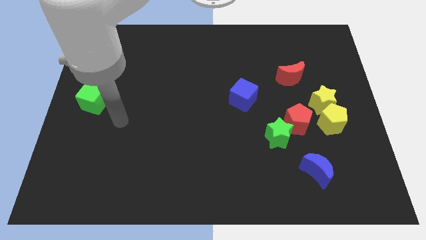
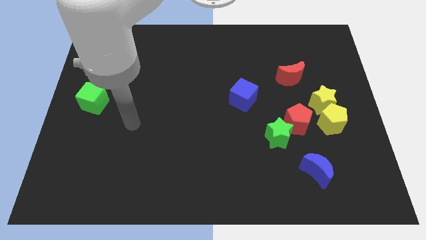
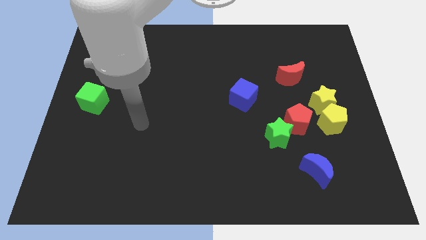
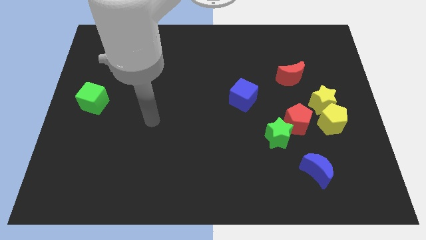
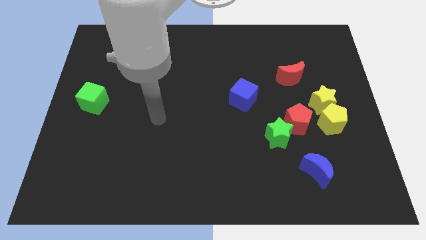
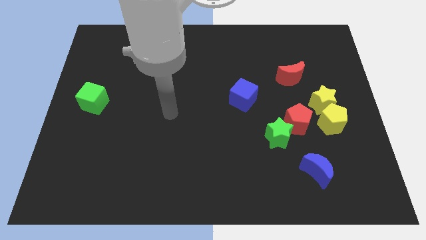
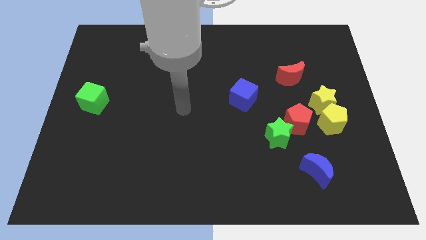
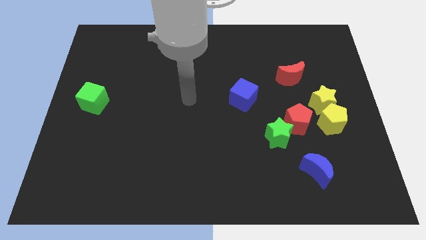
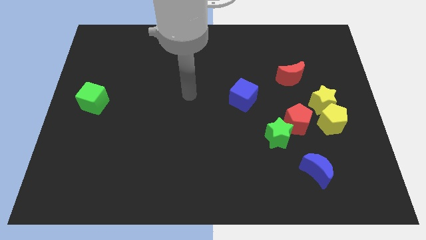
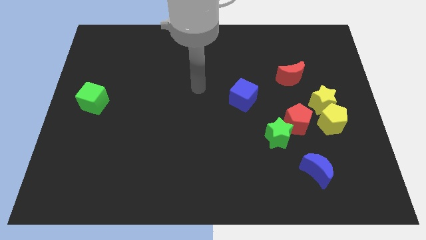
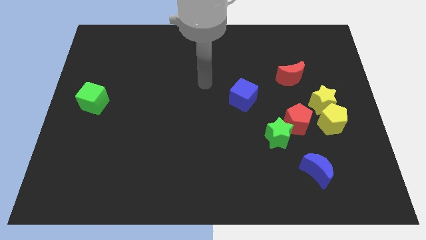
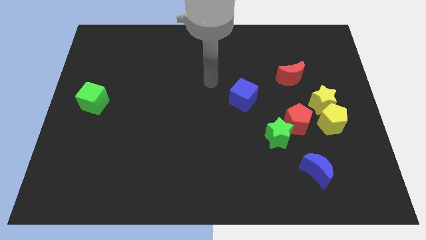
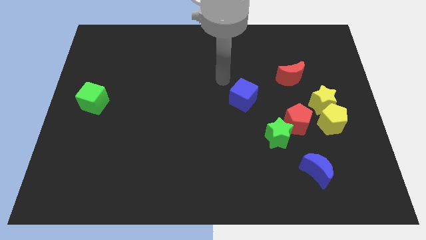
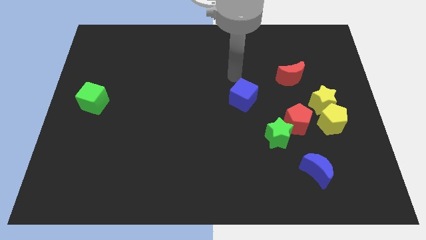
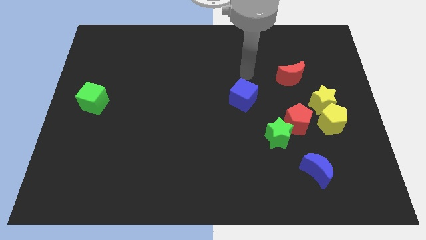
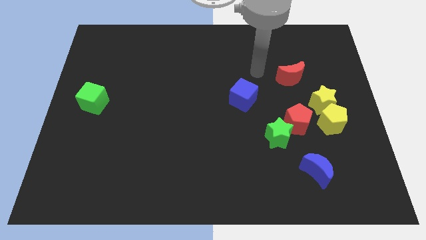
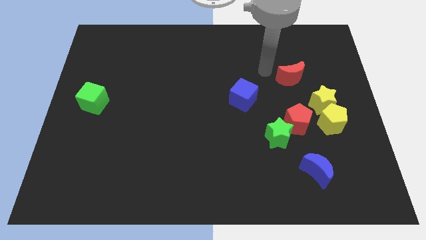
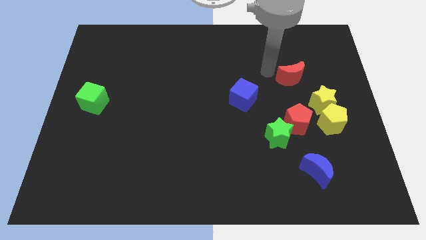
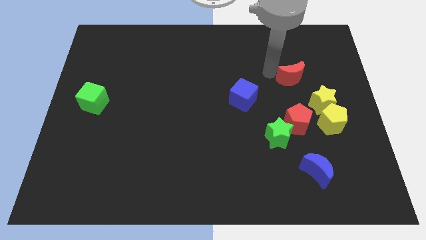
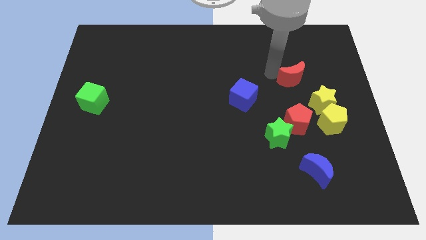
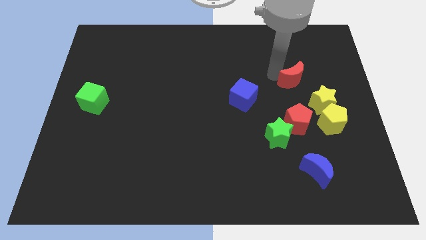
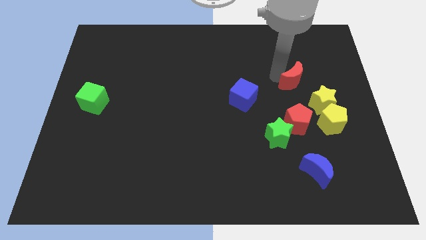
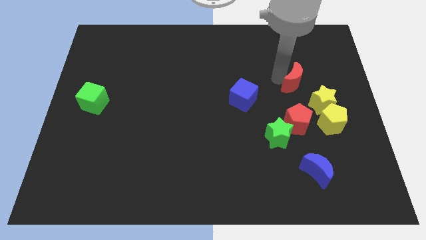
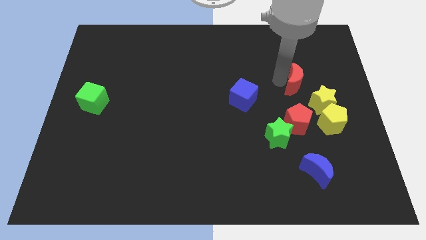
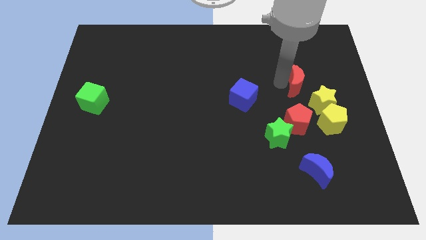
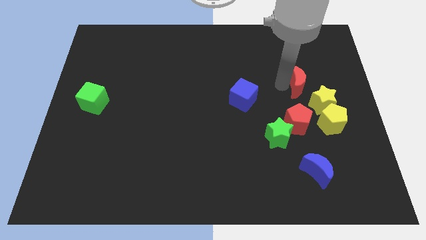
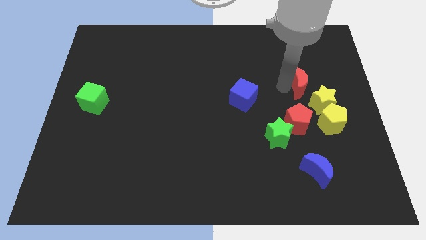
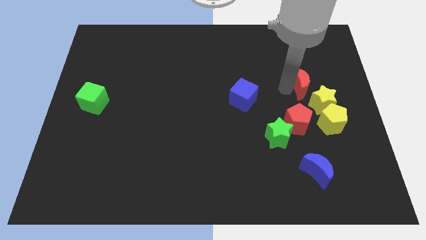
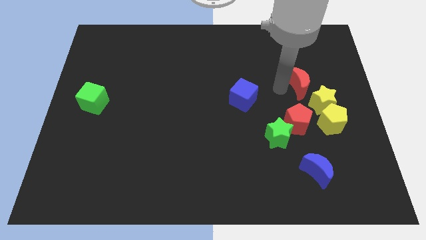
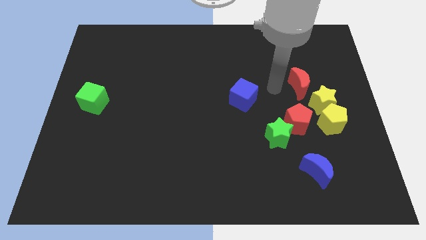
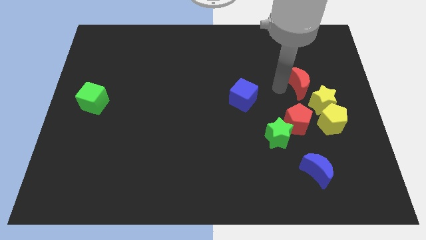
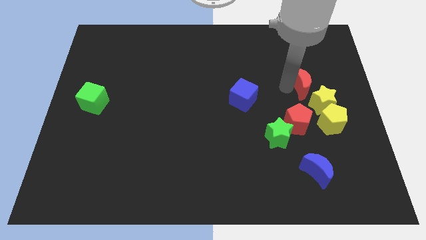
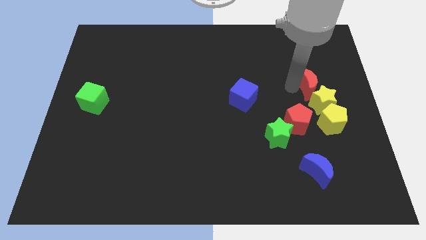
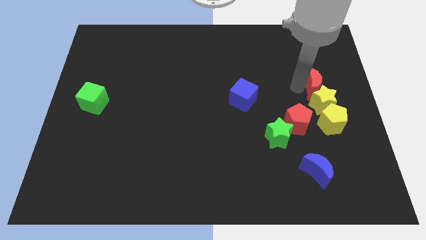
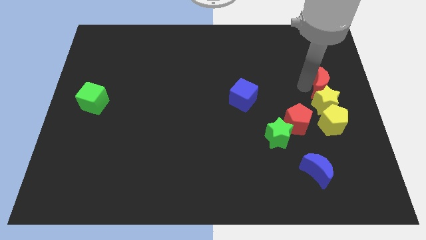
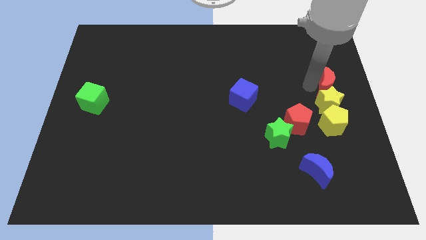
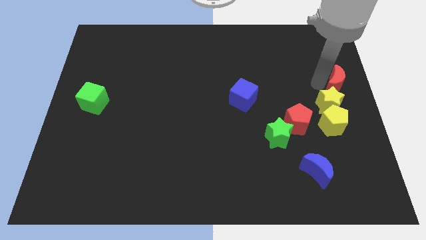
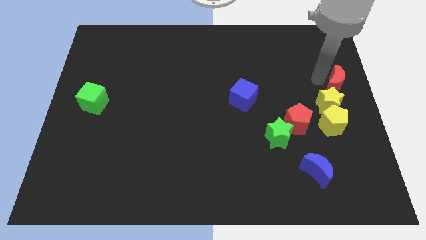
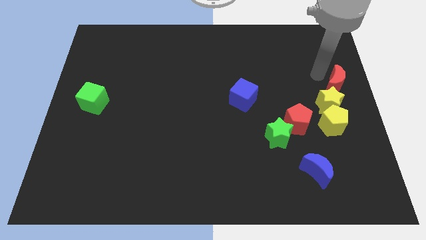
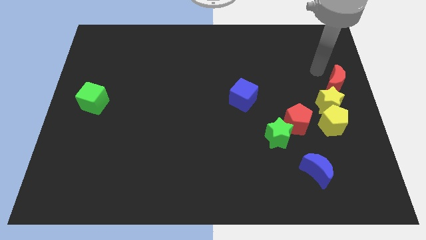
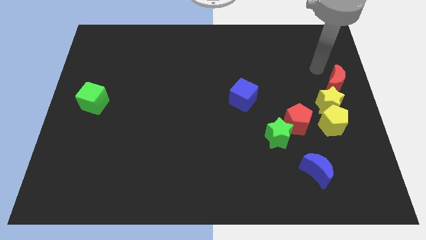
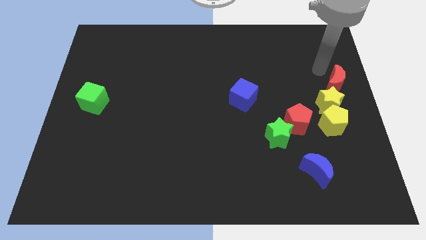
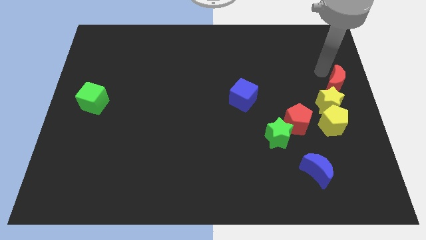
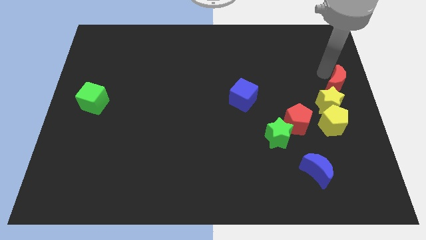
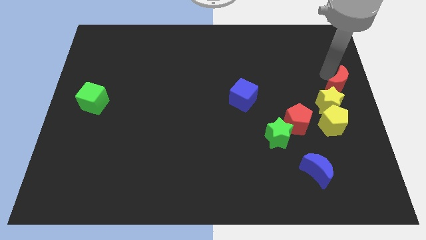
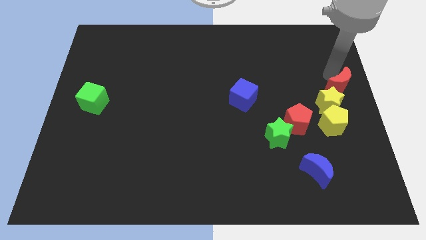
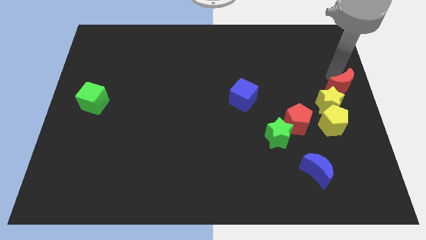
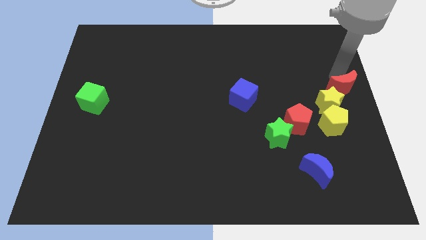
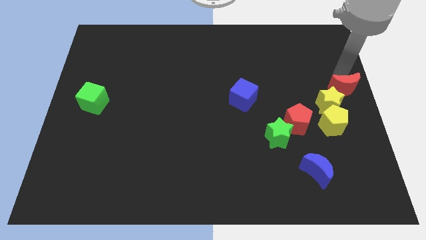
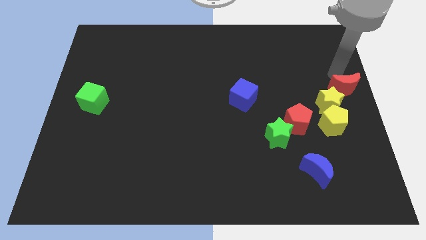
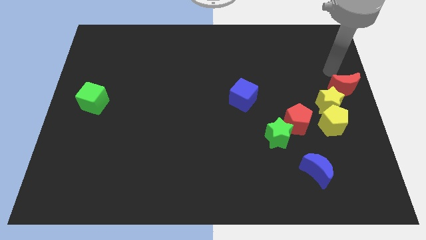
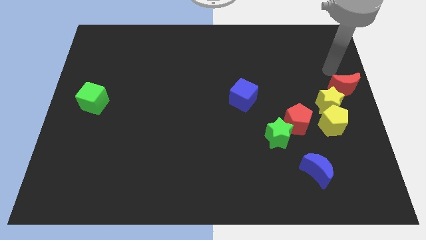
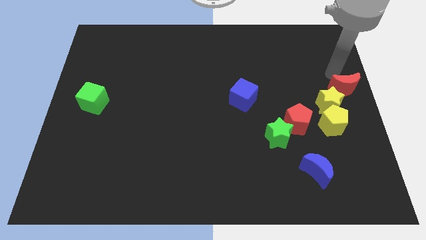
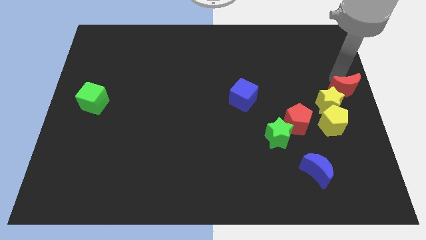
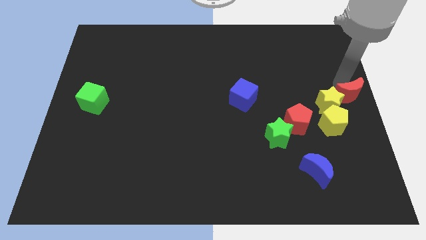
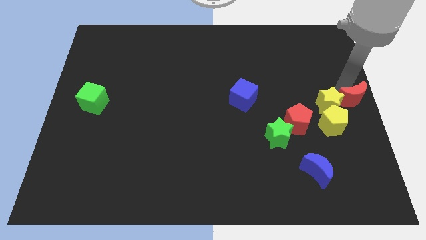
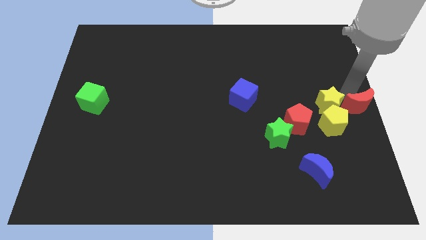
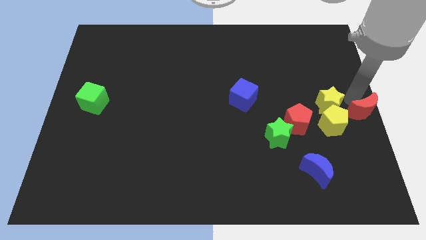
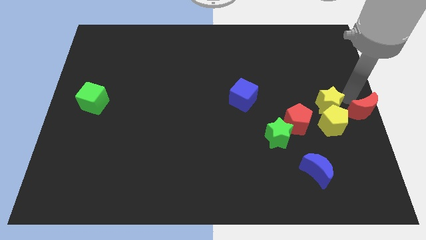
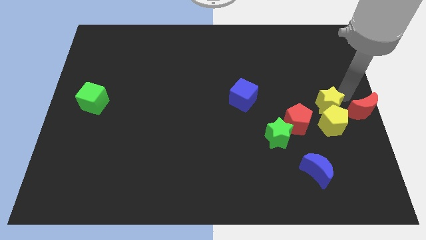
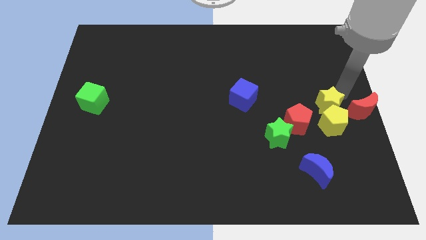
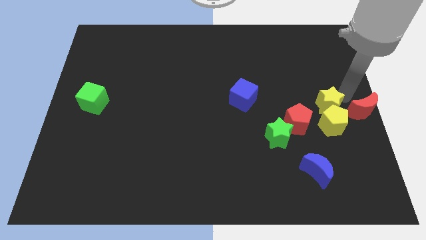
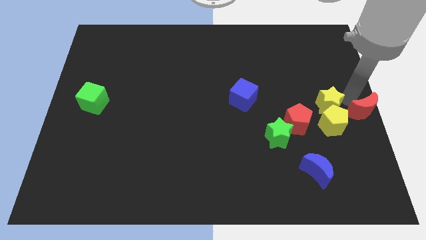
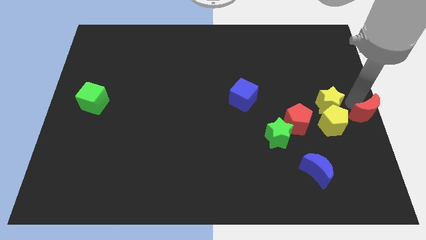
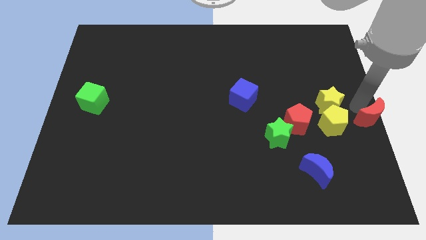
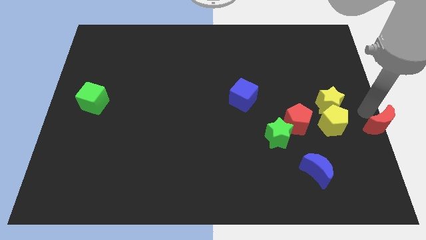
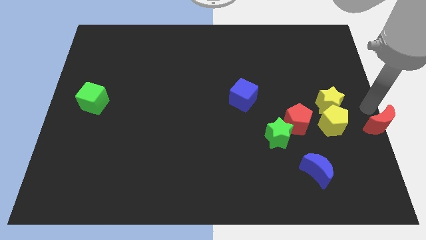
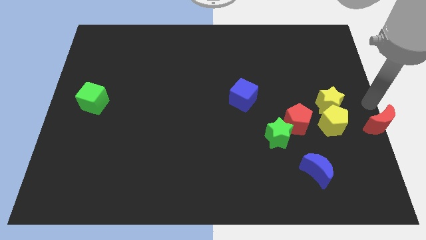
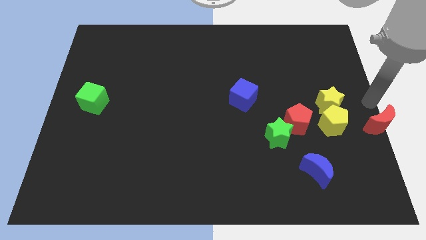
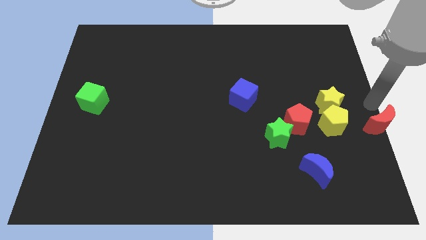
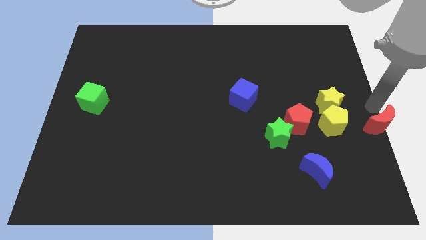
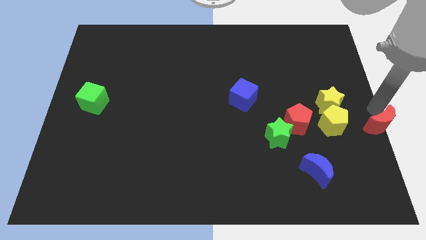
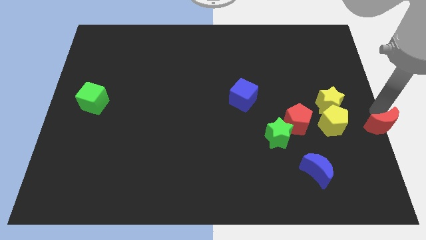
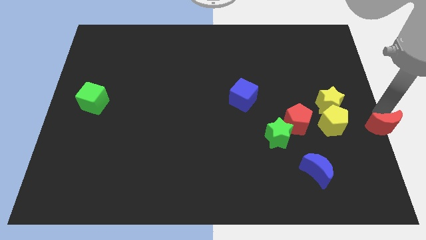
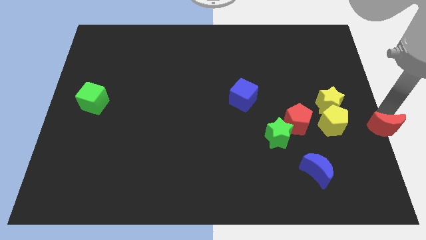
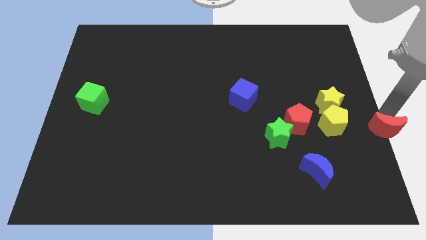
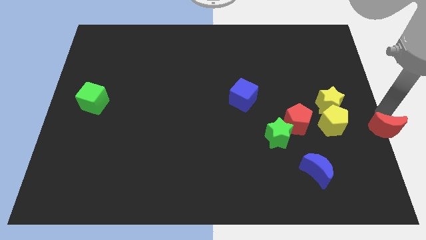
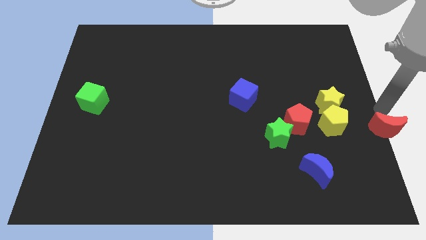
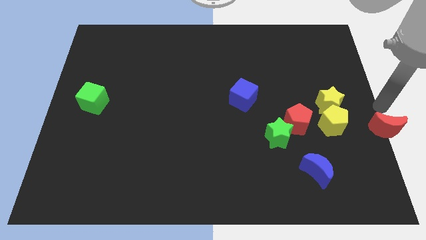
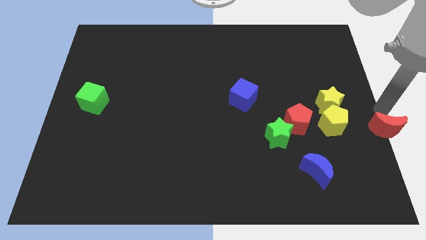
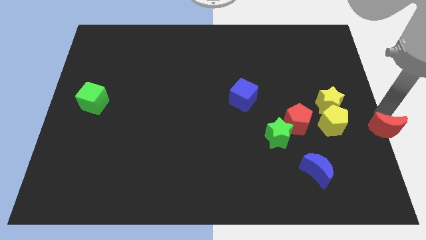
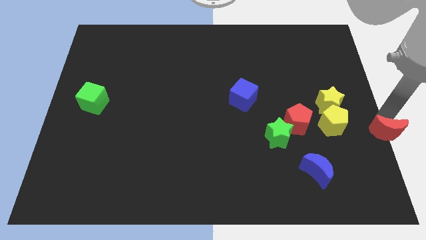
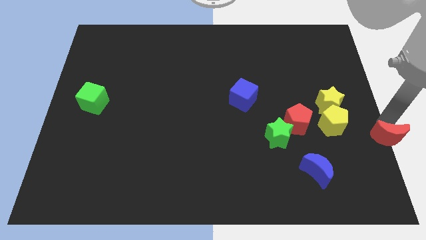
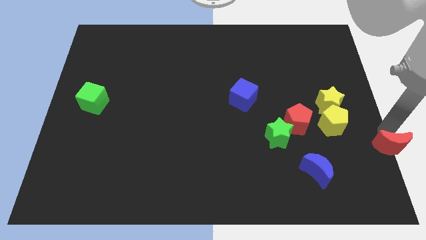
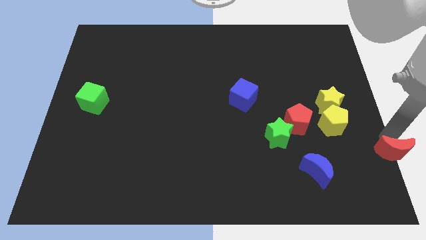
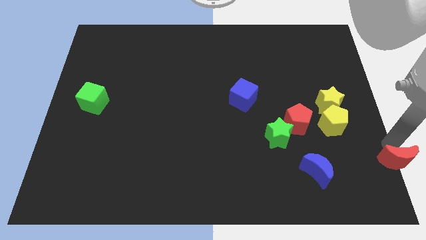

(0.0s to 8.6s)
push the red moon to the lower right corner
